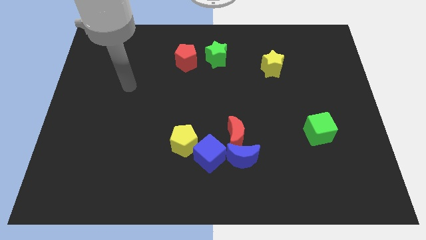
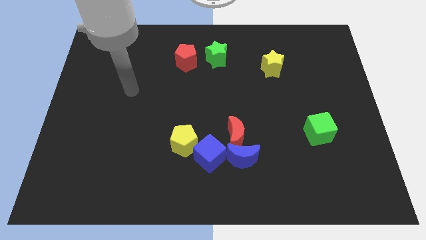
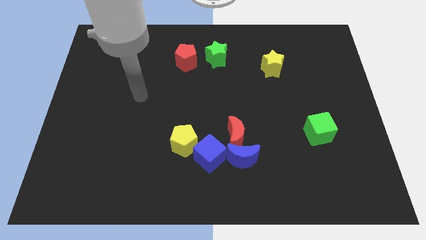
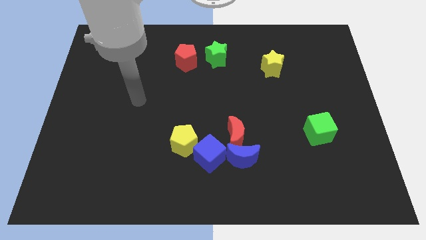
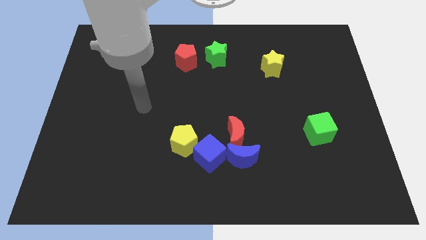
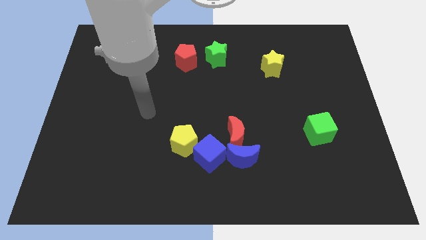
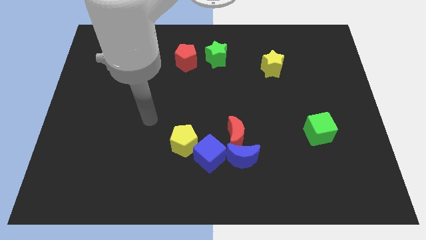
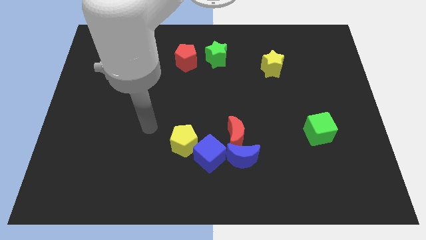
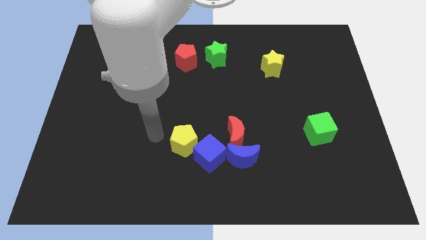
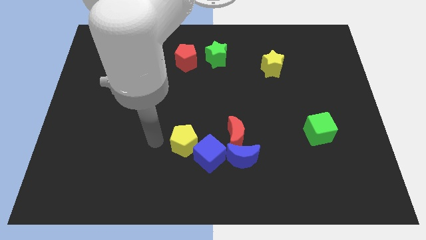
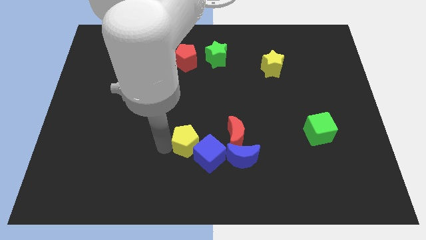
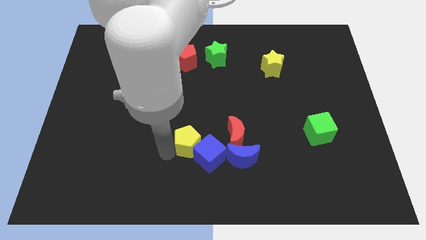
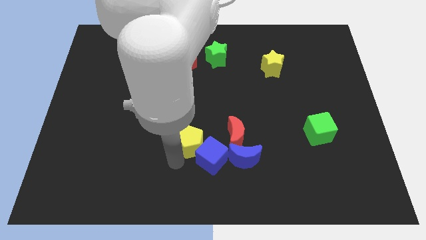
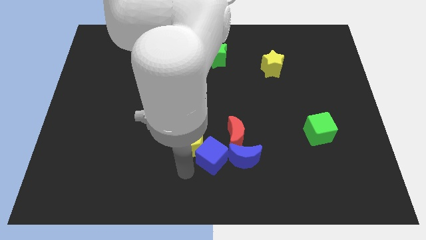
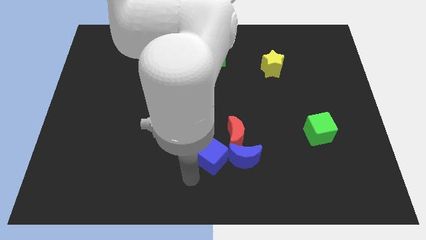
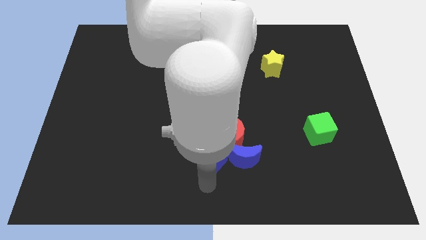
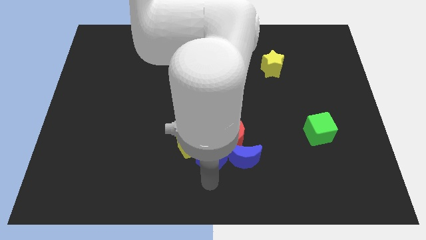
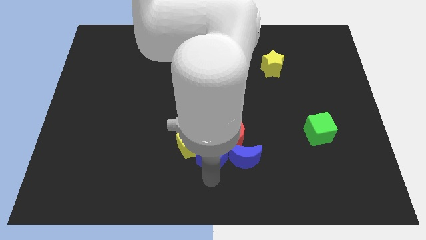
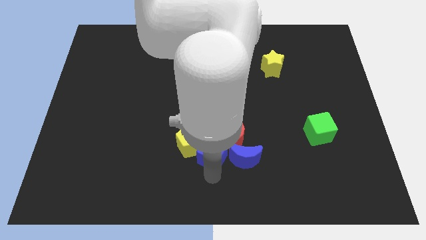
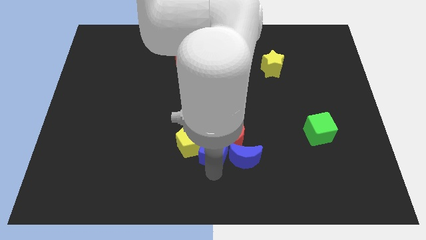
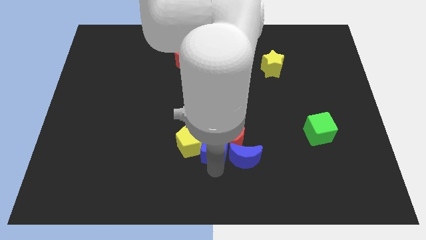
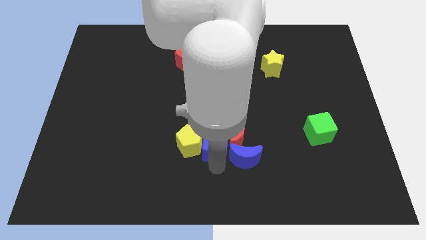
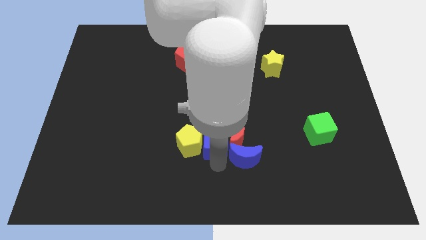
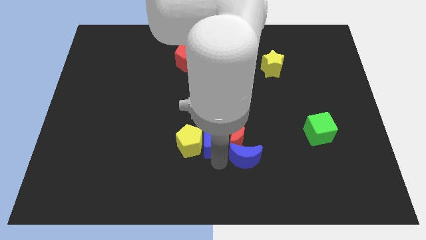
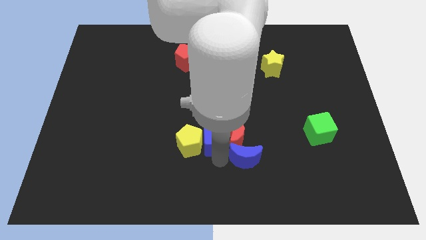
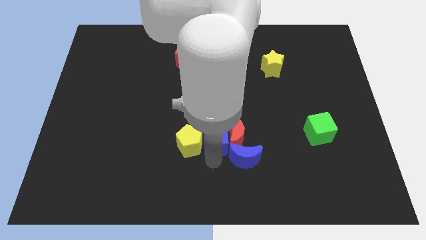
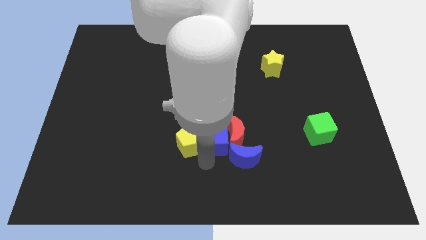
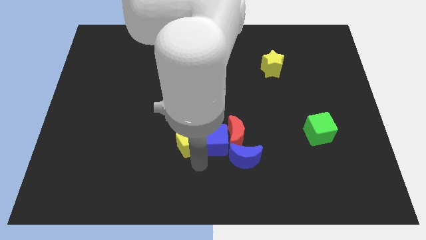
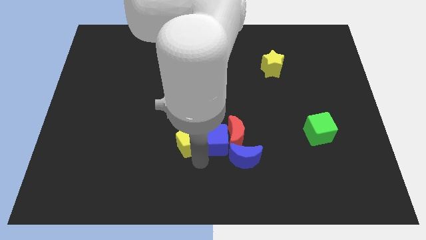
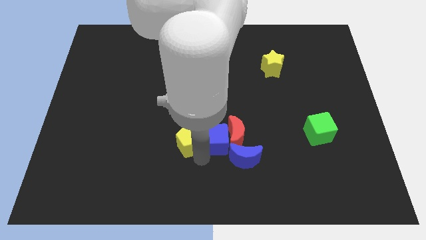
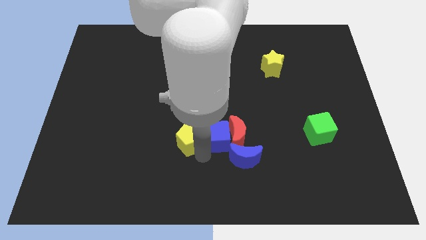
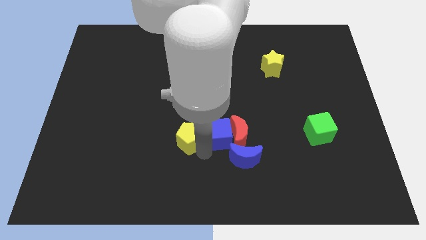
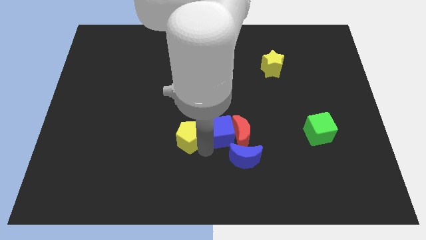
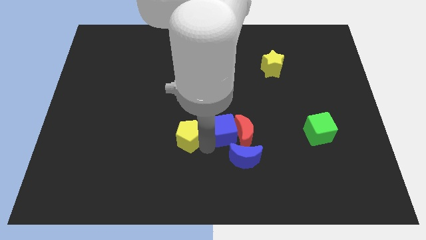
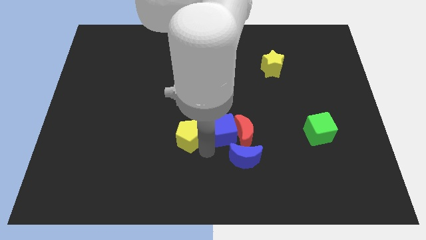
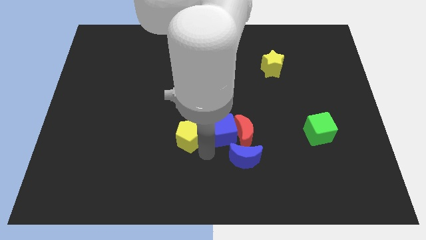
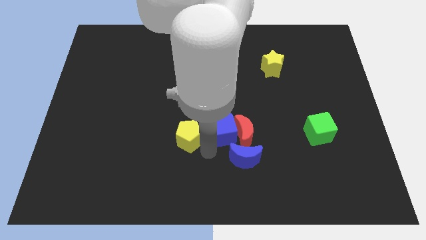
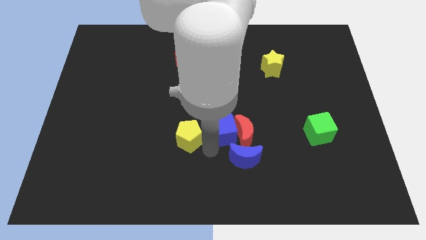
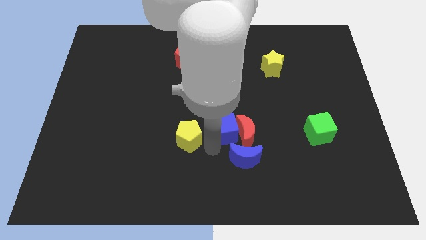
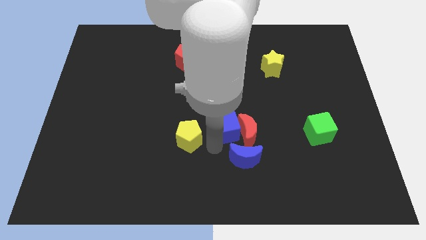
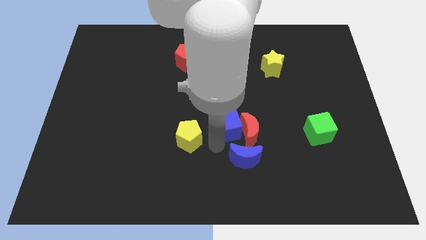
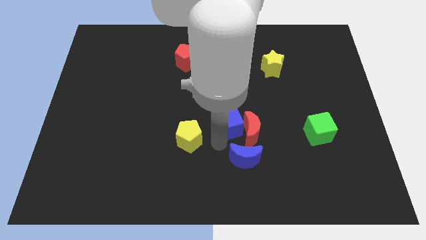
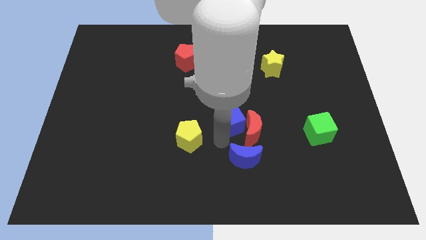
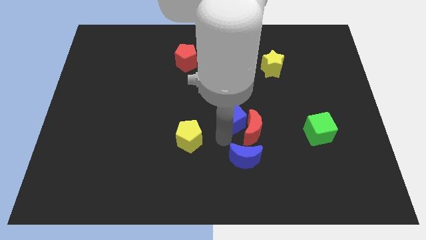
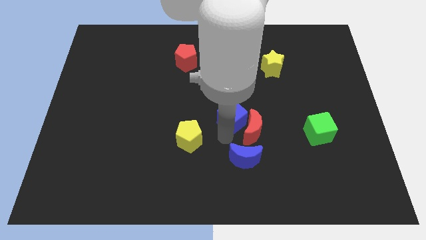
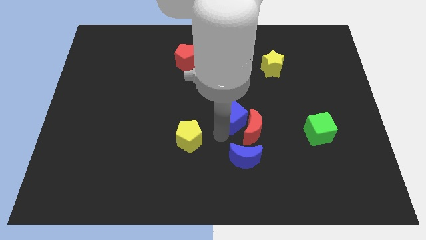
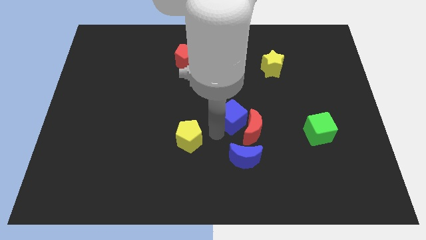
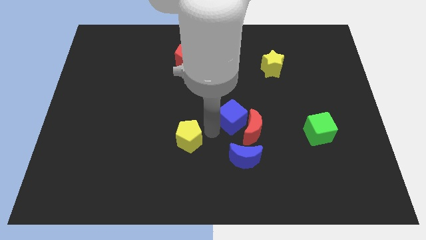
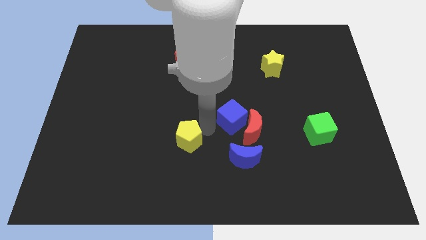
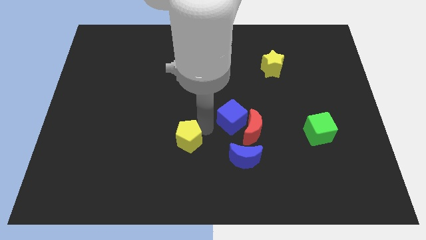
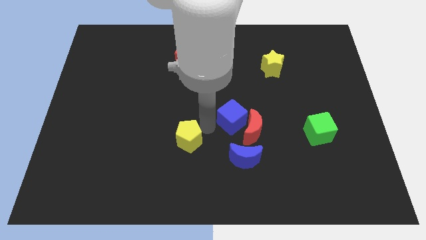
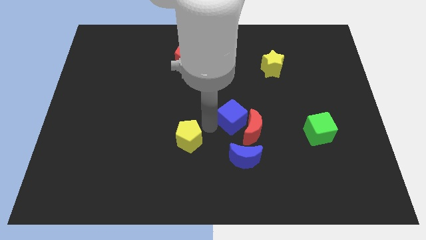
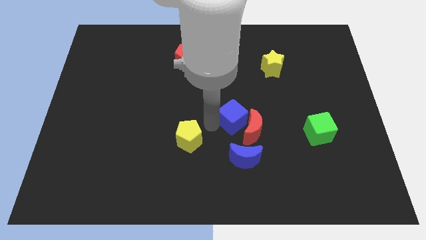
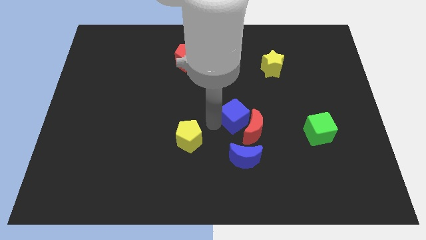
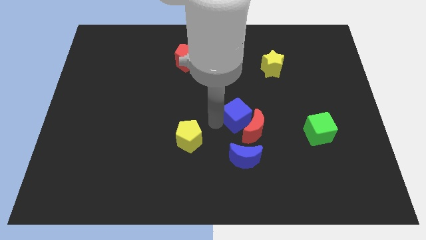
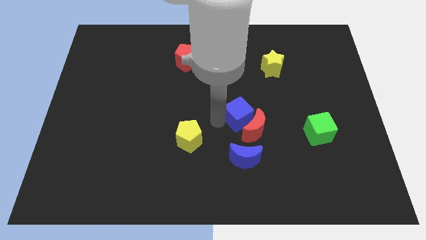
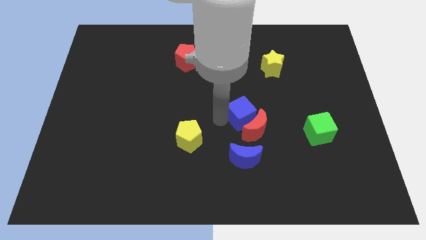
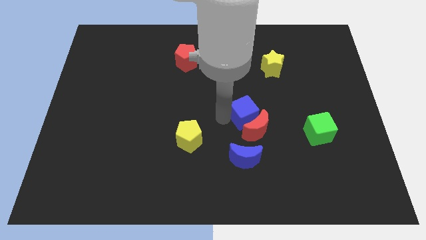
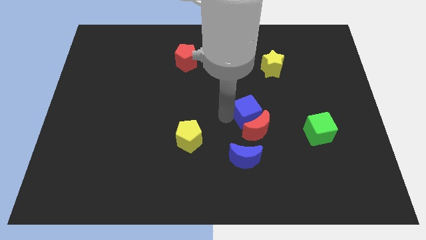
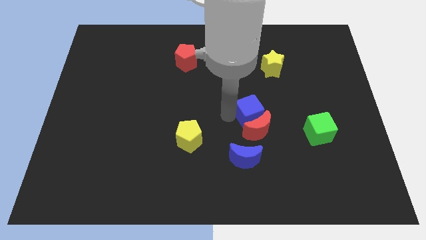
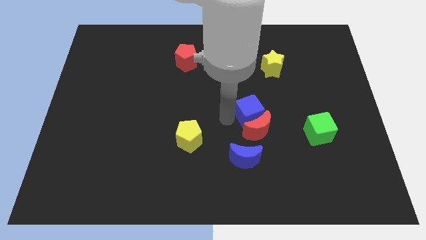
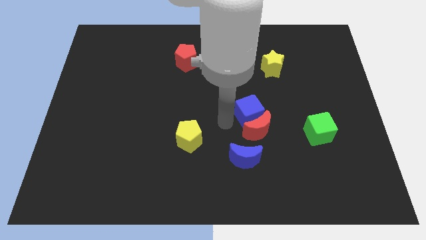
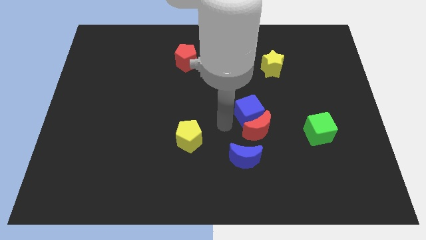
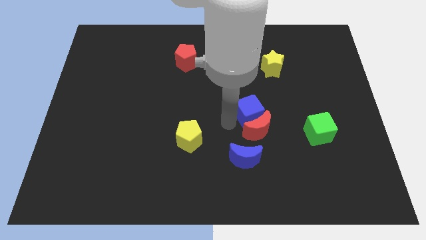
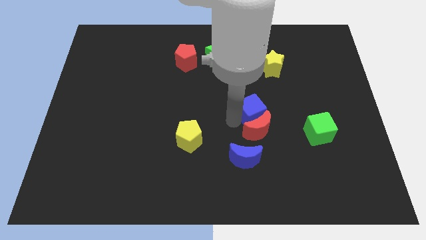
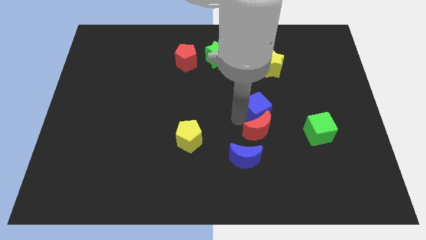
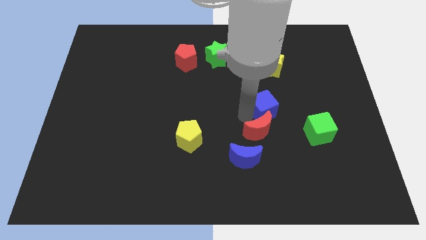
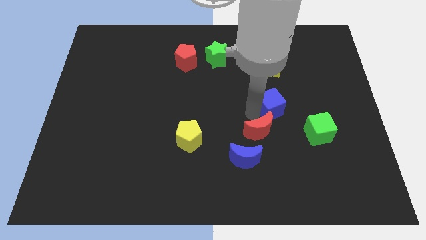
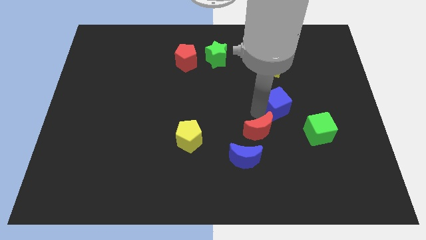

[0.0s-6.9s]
slide the blue cube upwards and right diagonally

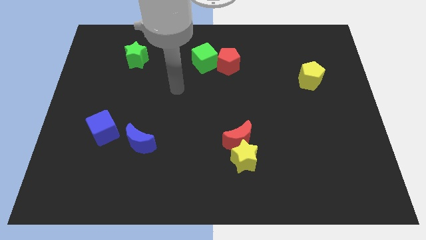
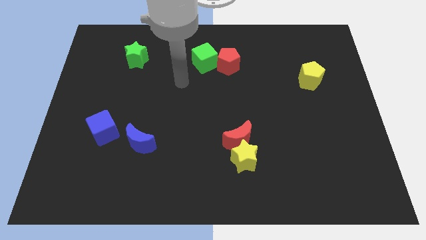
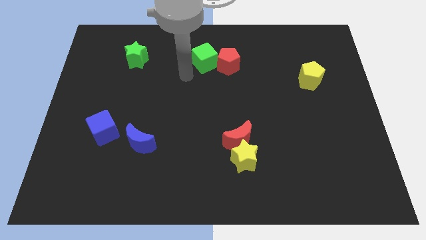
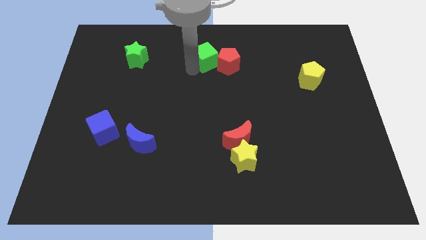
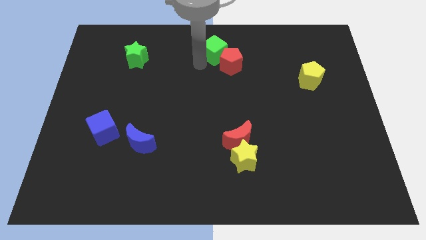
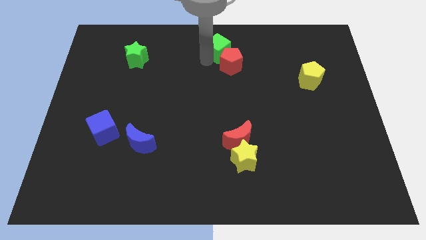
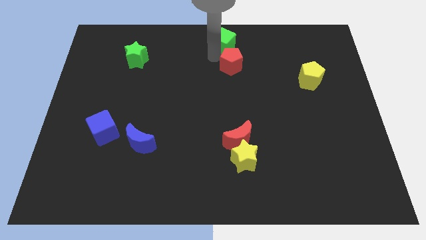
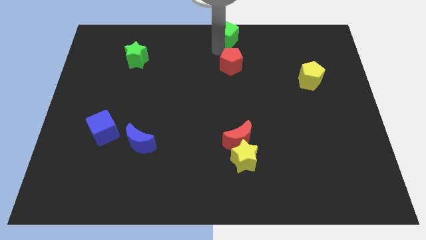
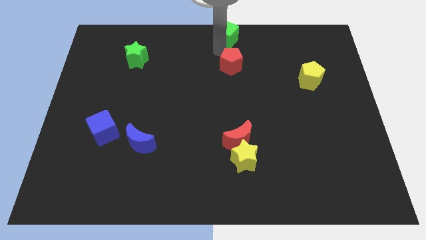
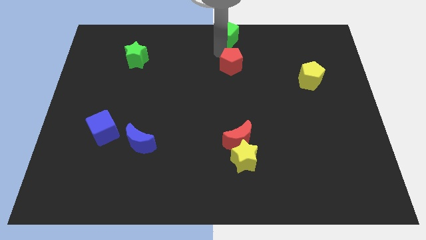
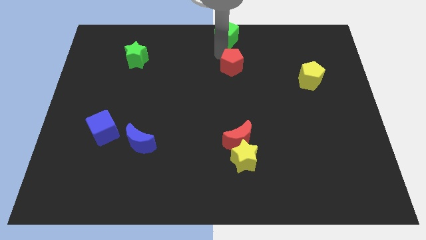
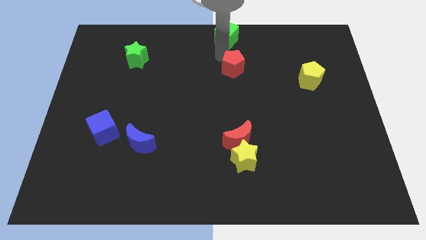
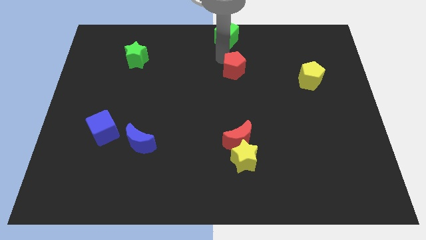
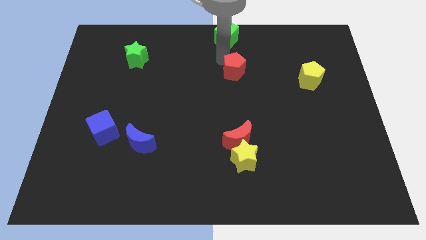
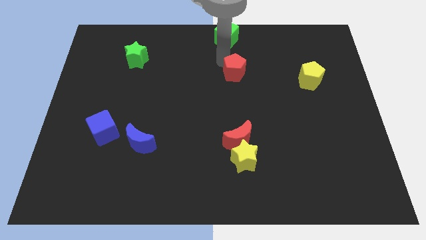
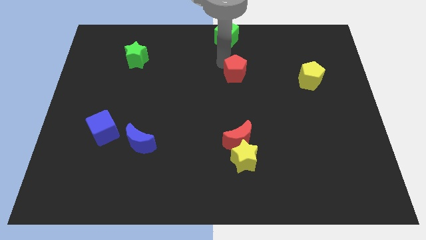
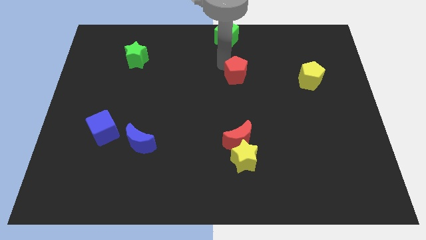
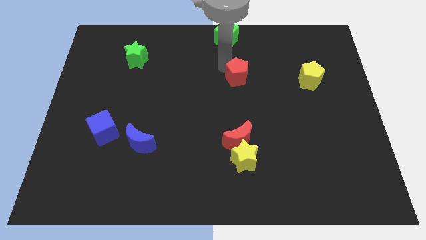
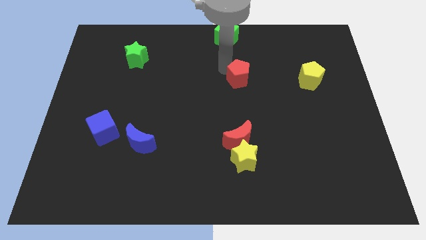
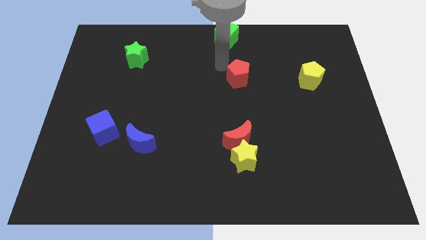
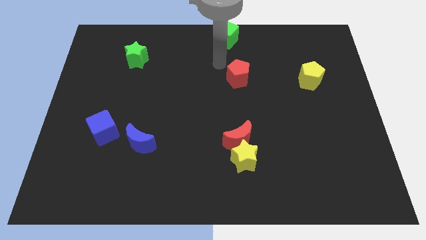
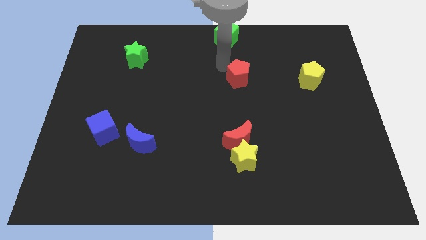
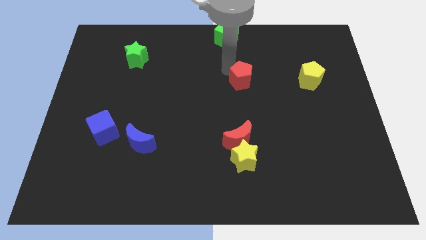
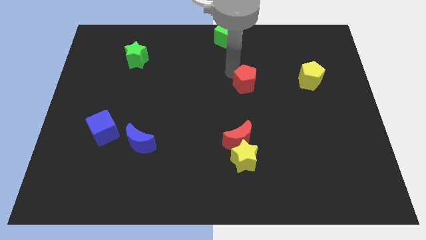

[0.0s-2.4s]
push the red pentagon diagonally down and to the right a little bit
